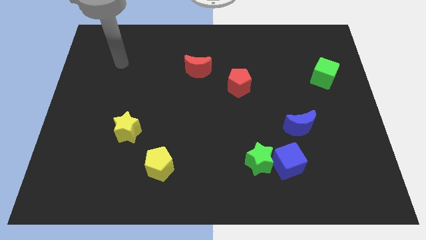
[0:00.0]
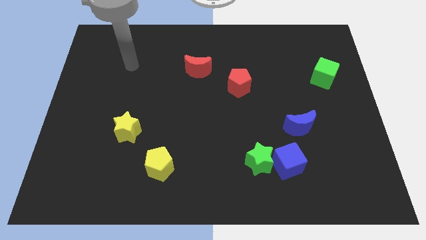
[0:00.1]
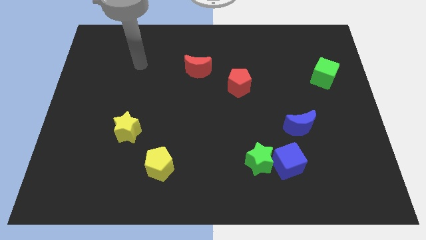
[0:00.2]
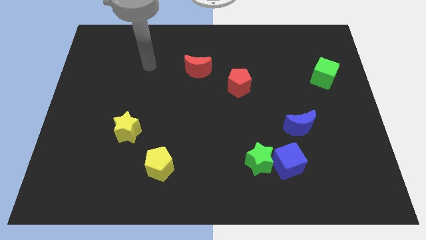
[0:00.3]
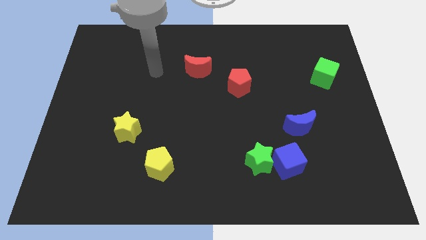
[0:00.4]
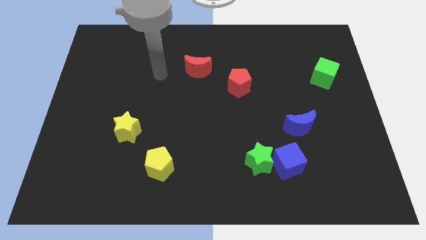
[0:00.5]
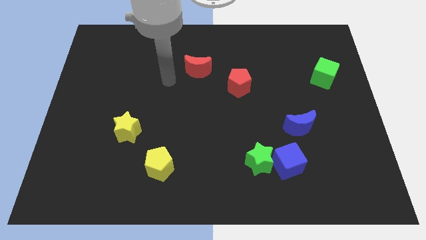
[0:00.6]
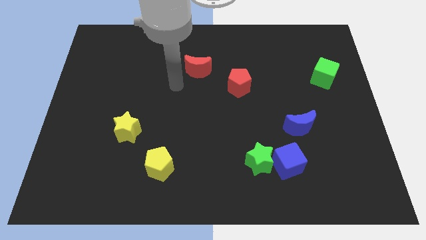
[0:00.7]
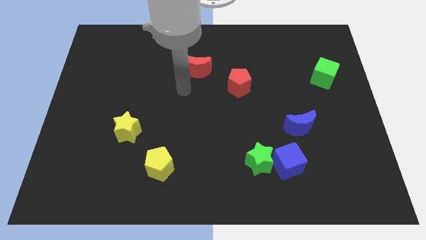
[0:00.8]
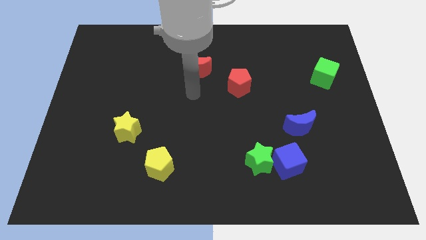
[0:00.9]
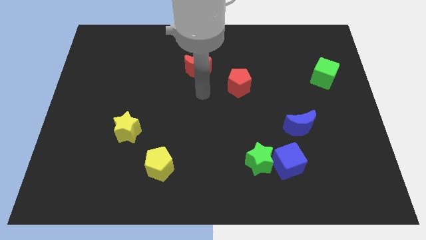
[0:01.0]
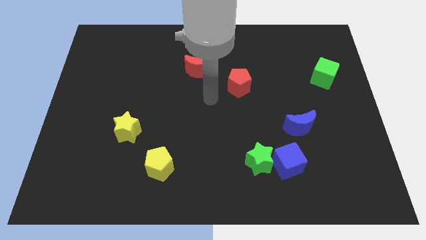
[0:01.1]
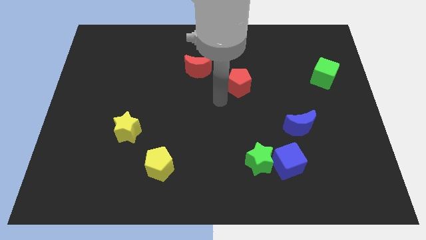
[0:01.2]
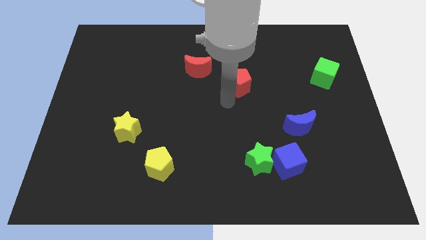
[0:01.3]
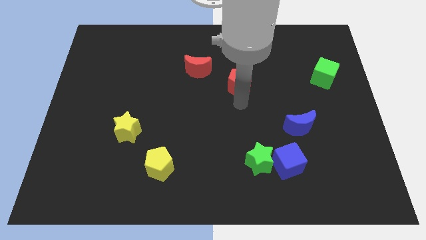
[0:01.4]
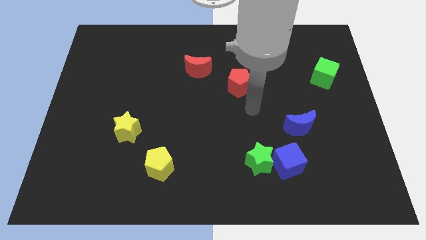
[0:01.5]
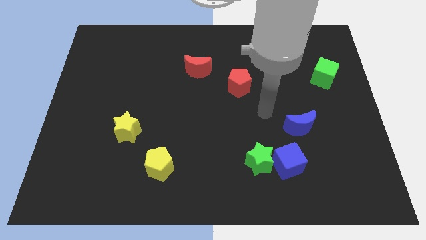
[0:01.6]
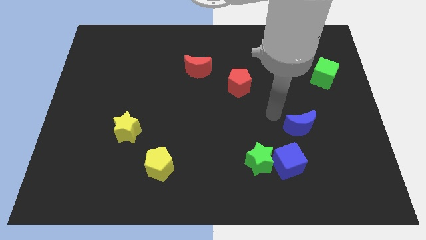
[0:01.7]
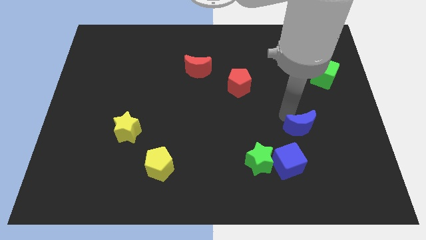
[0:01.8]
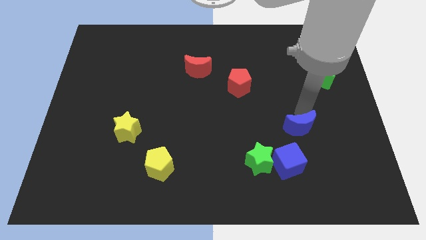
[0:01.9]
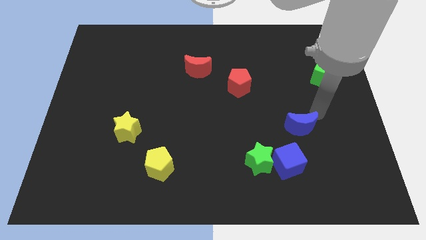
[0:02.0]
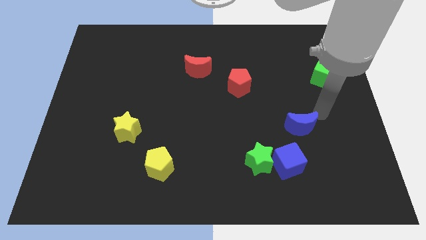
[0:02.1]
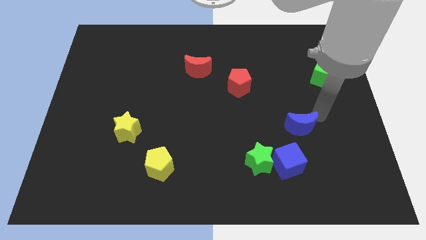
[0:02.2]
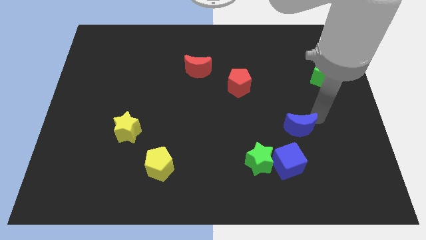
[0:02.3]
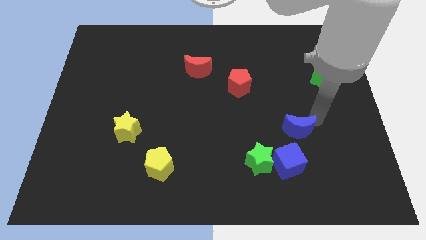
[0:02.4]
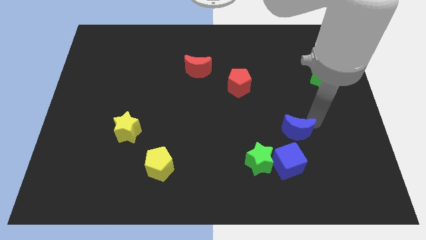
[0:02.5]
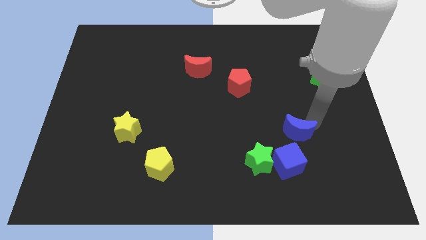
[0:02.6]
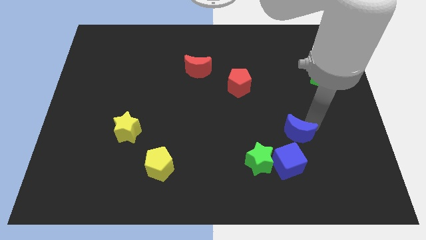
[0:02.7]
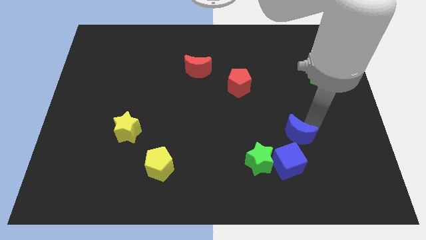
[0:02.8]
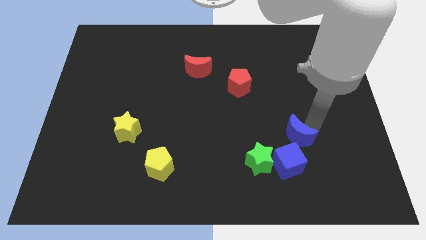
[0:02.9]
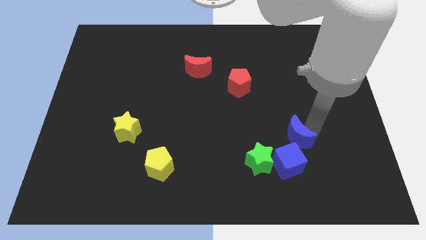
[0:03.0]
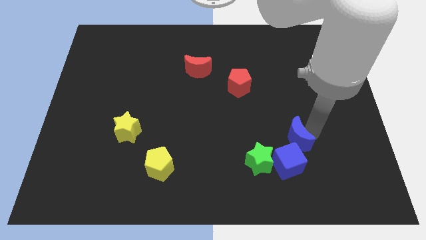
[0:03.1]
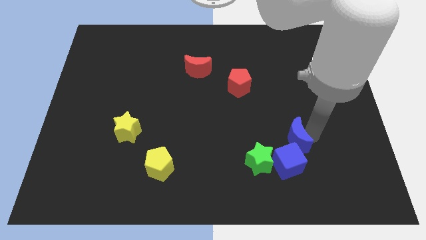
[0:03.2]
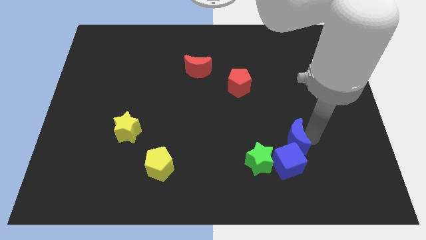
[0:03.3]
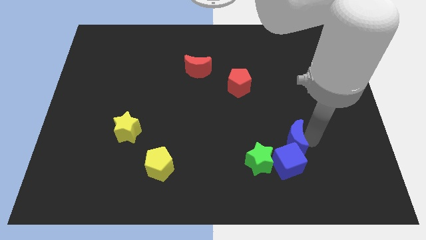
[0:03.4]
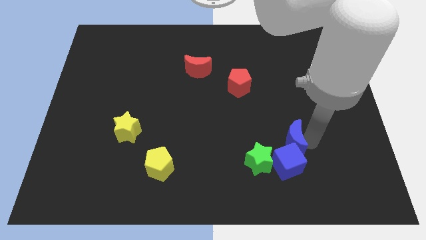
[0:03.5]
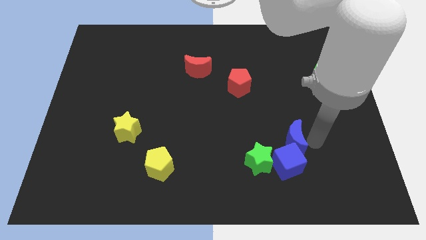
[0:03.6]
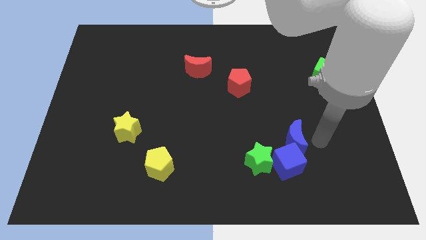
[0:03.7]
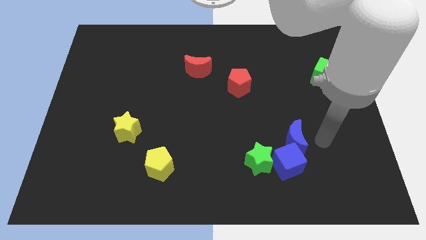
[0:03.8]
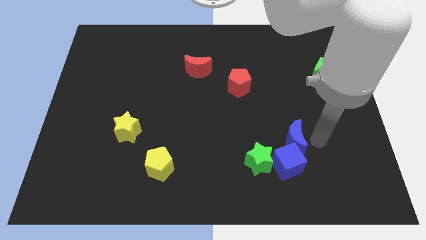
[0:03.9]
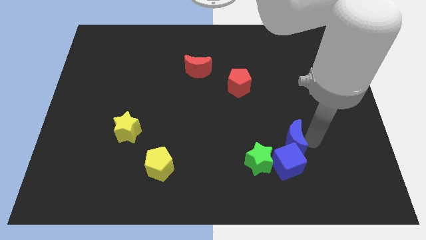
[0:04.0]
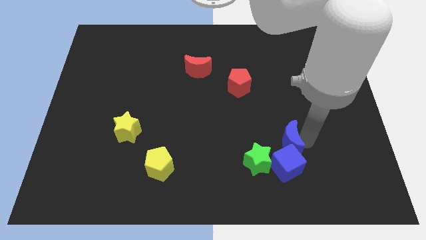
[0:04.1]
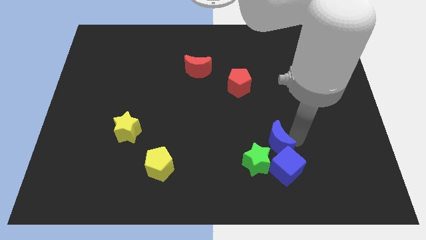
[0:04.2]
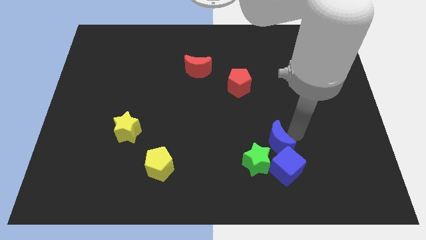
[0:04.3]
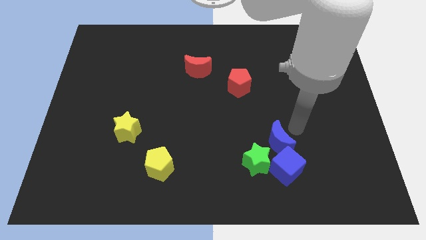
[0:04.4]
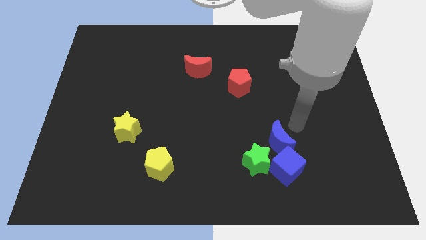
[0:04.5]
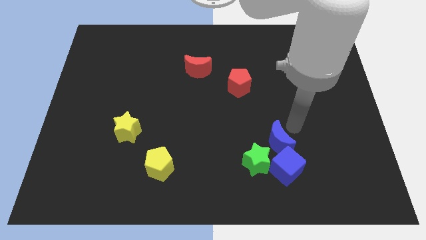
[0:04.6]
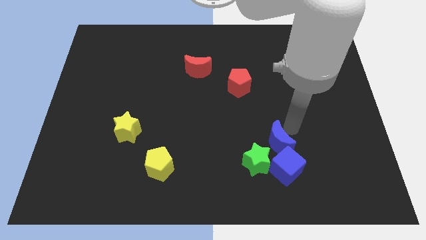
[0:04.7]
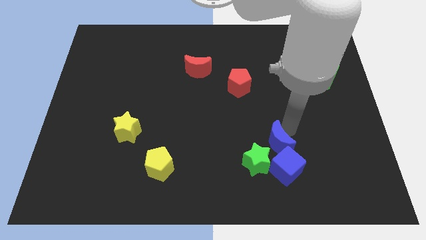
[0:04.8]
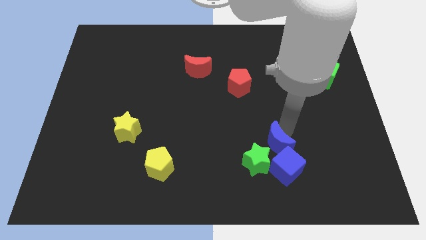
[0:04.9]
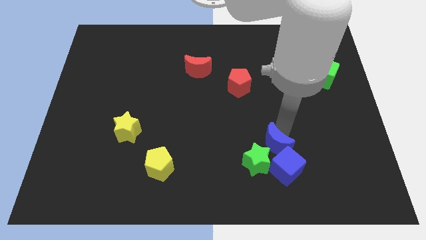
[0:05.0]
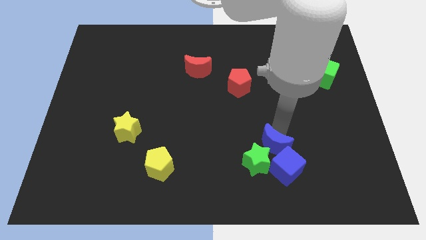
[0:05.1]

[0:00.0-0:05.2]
put the blue moon towards the green star

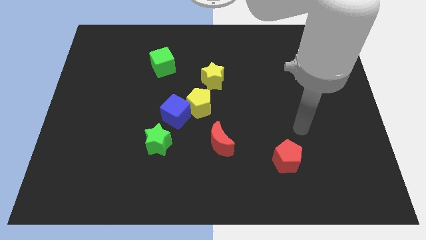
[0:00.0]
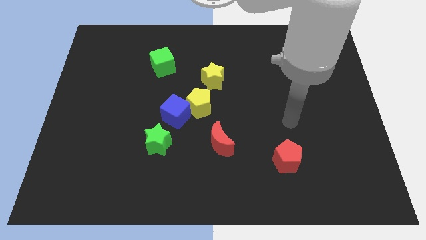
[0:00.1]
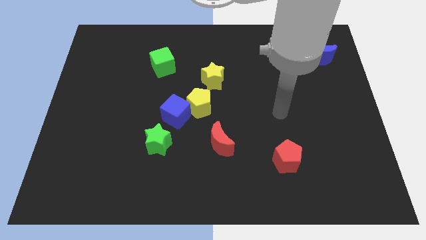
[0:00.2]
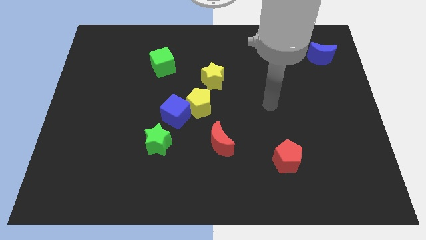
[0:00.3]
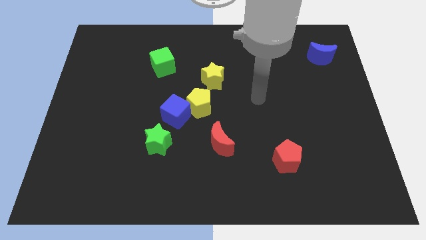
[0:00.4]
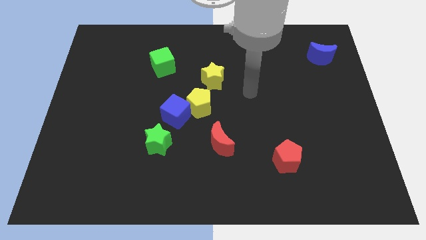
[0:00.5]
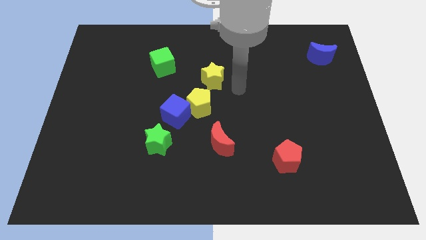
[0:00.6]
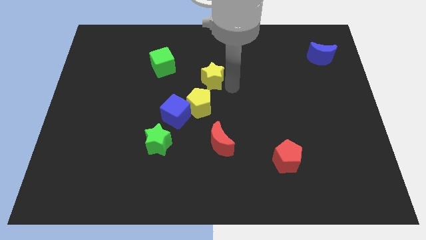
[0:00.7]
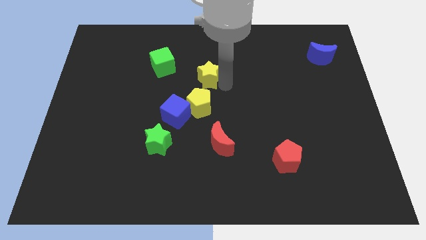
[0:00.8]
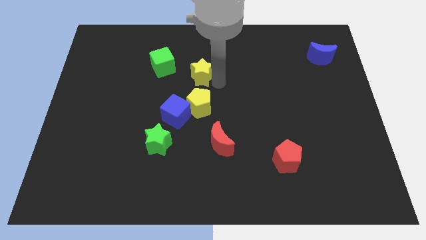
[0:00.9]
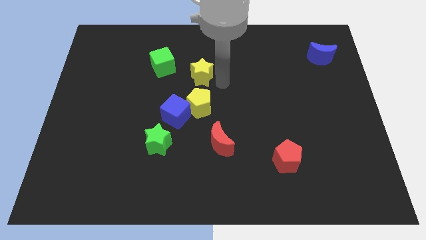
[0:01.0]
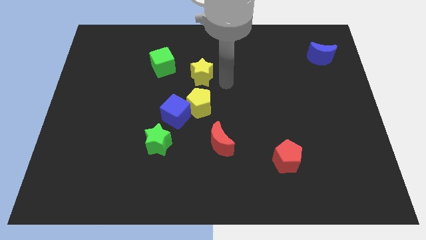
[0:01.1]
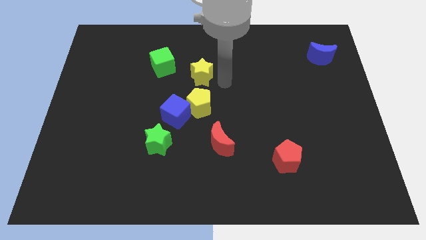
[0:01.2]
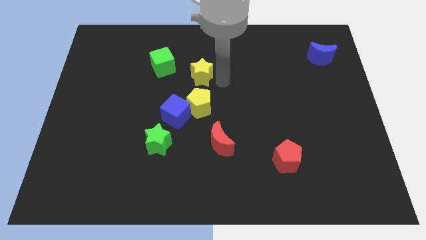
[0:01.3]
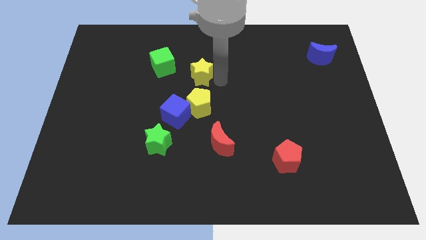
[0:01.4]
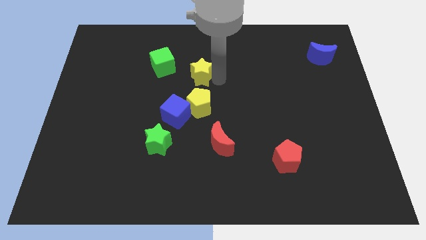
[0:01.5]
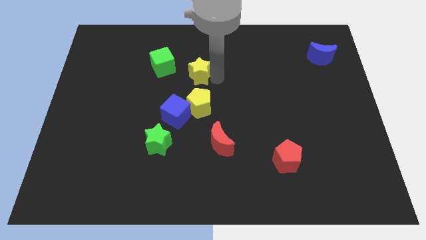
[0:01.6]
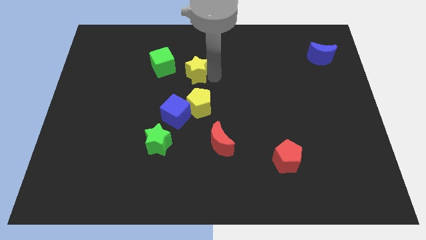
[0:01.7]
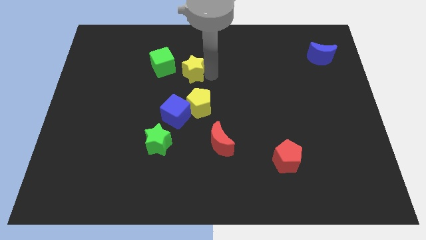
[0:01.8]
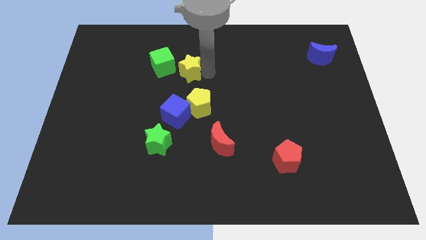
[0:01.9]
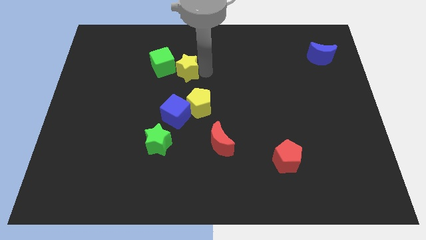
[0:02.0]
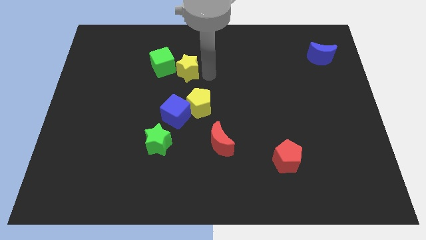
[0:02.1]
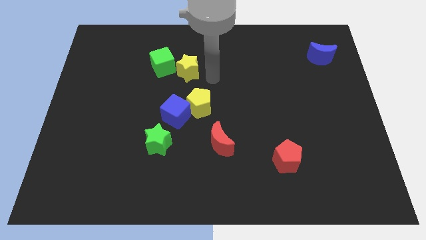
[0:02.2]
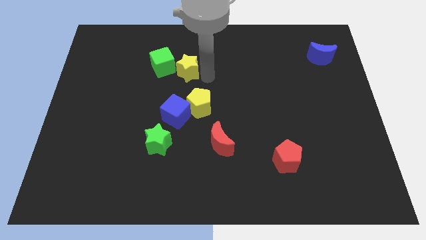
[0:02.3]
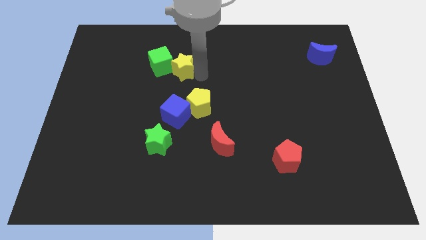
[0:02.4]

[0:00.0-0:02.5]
push the yellow star to the green cube

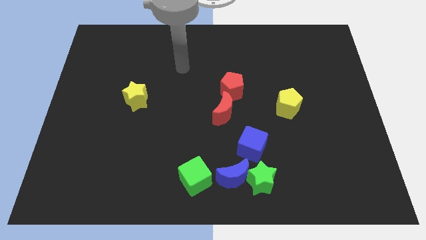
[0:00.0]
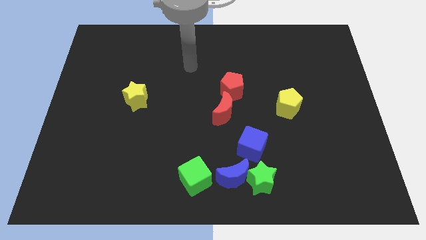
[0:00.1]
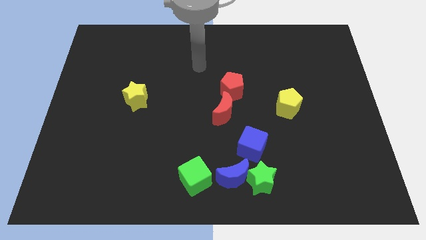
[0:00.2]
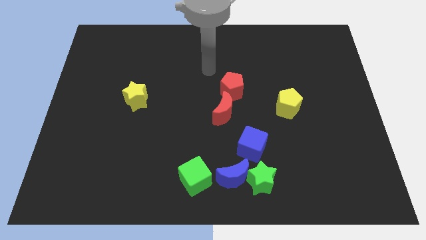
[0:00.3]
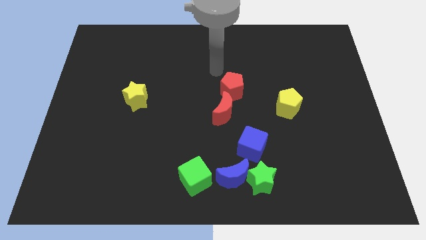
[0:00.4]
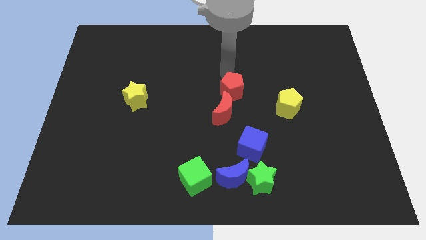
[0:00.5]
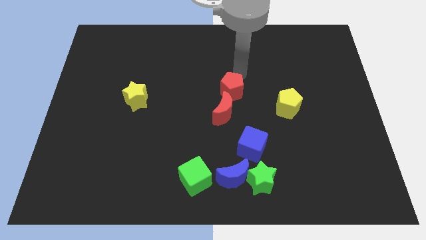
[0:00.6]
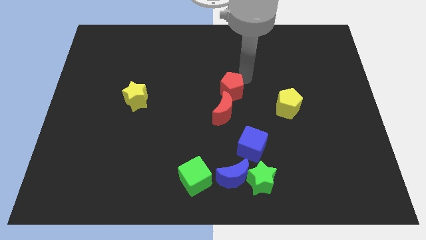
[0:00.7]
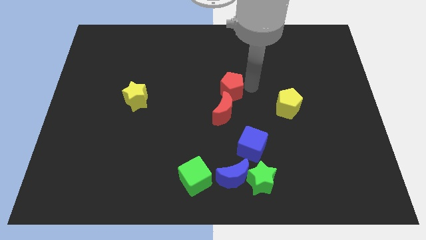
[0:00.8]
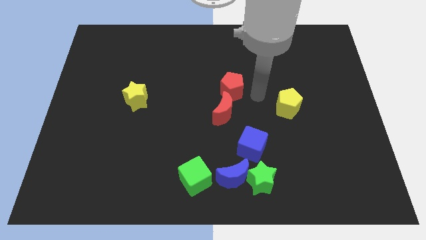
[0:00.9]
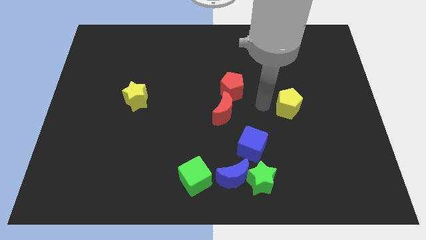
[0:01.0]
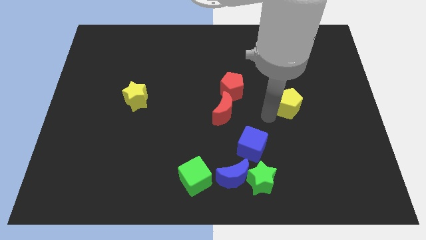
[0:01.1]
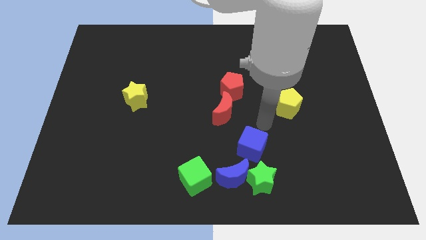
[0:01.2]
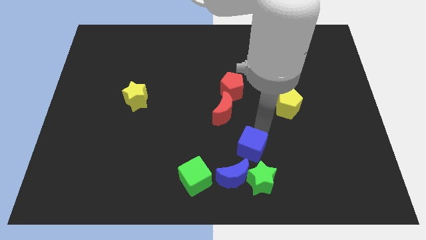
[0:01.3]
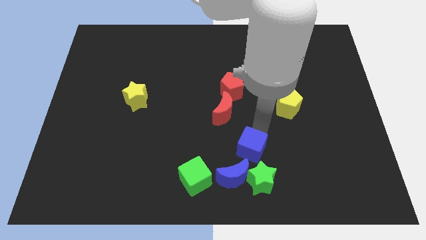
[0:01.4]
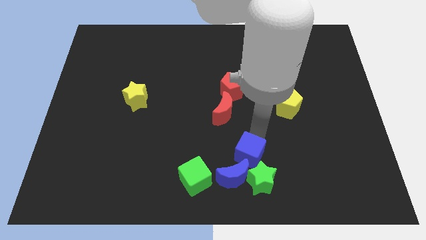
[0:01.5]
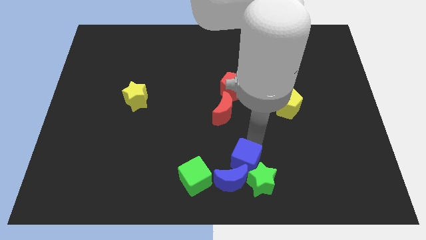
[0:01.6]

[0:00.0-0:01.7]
put the blue cube close to the blue moon
